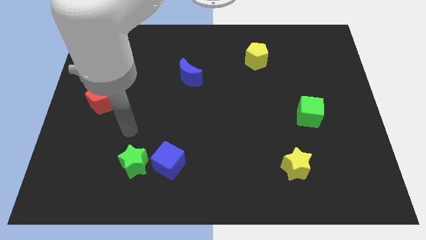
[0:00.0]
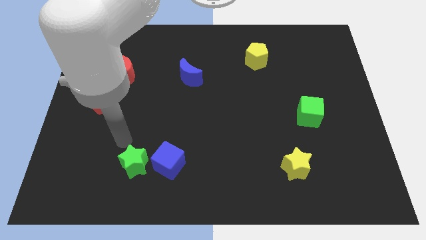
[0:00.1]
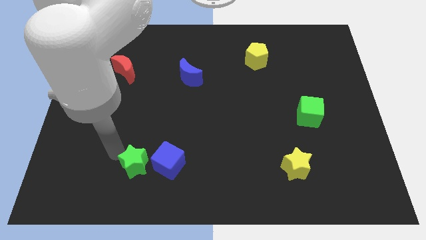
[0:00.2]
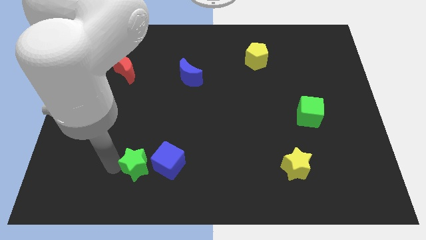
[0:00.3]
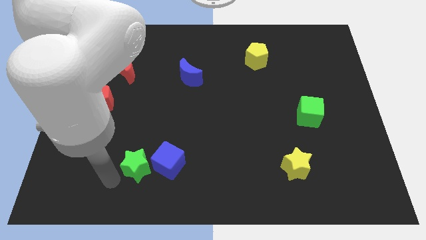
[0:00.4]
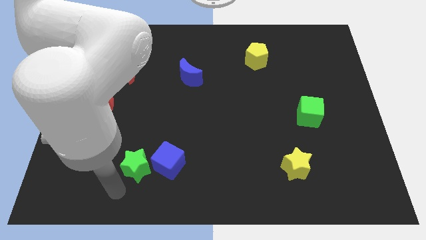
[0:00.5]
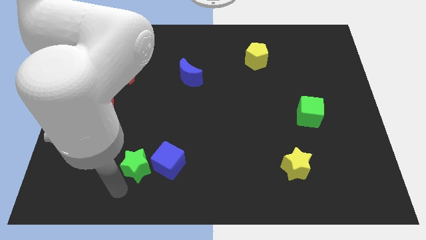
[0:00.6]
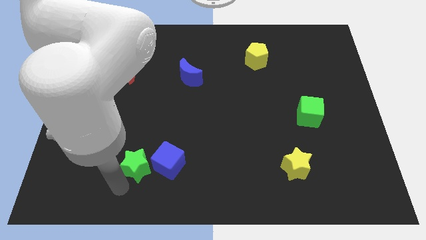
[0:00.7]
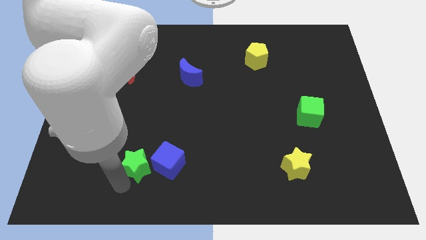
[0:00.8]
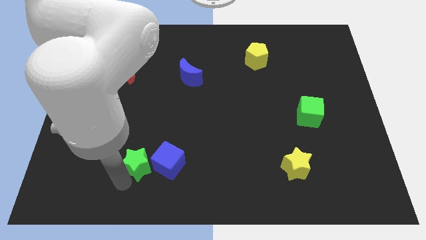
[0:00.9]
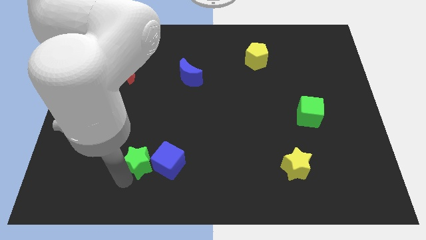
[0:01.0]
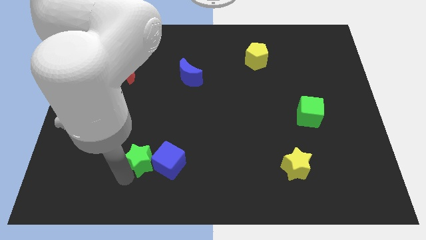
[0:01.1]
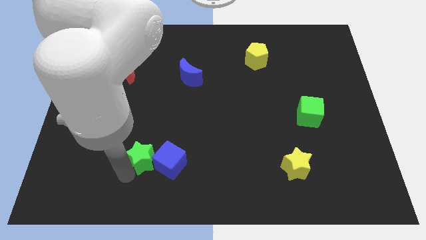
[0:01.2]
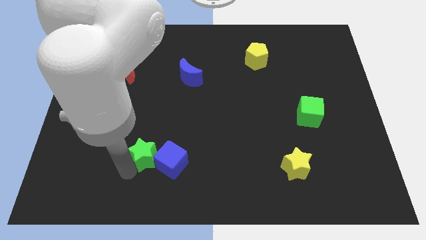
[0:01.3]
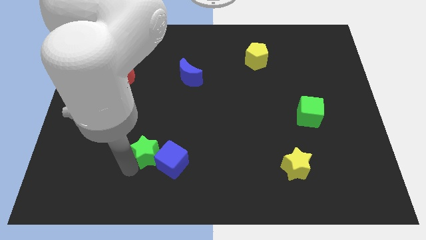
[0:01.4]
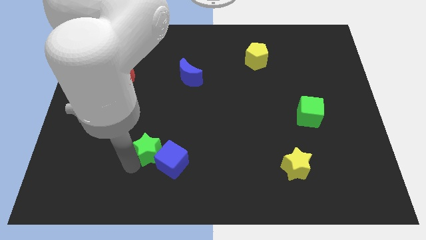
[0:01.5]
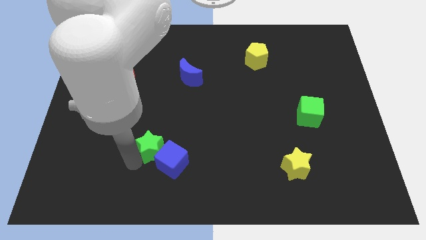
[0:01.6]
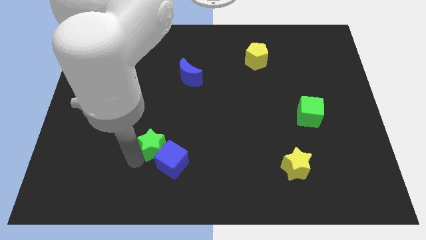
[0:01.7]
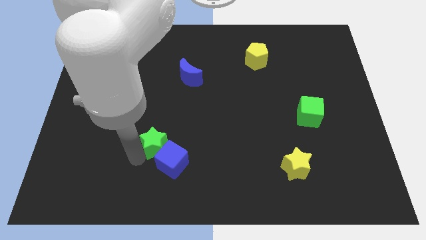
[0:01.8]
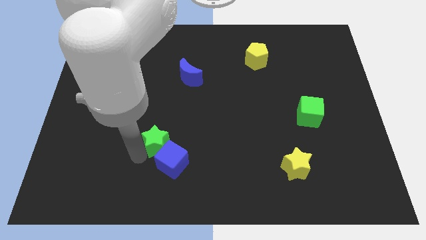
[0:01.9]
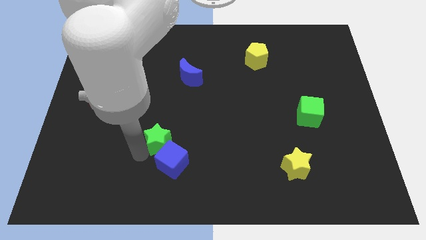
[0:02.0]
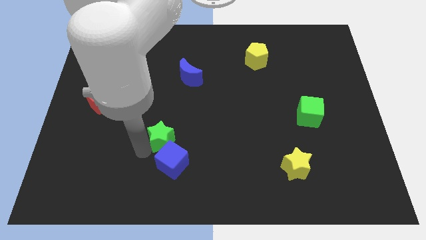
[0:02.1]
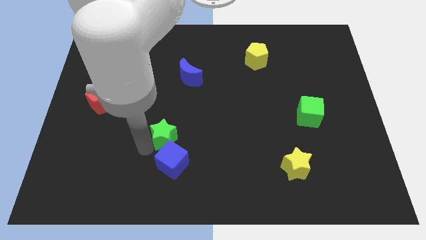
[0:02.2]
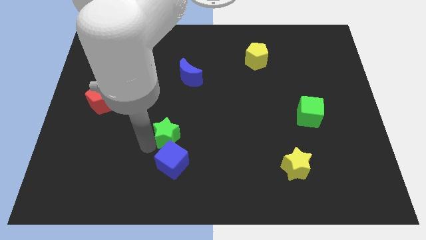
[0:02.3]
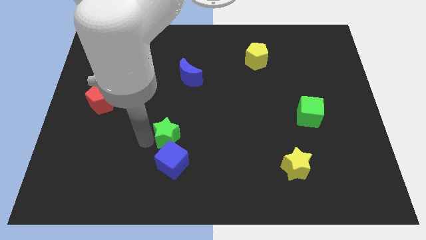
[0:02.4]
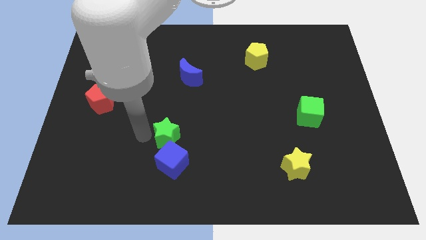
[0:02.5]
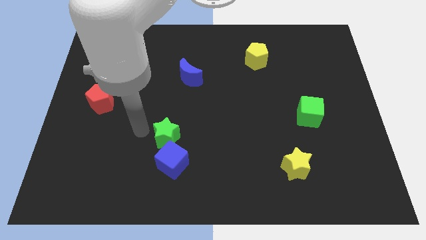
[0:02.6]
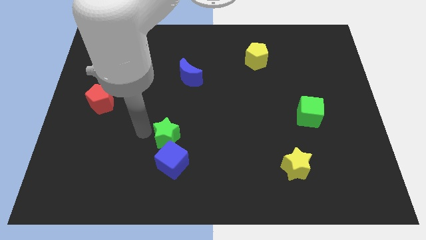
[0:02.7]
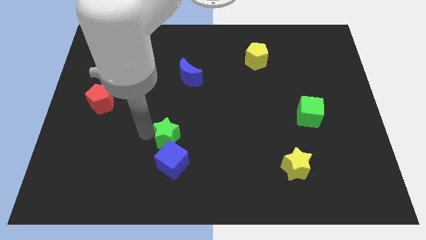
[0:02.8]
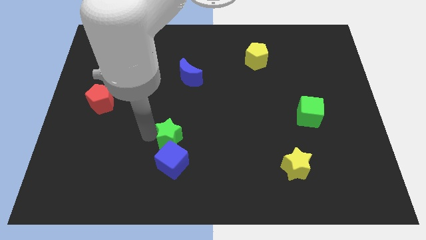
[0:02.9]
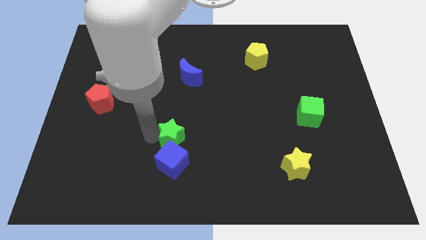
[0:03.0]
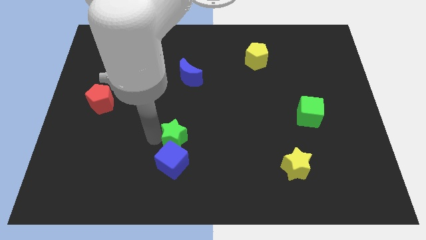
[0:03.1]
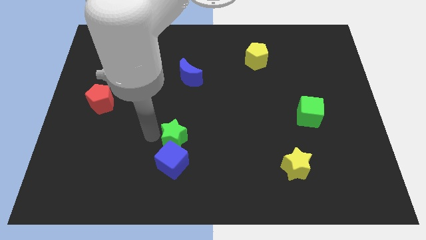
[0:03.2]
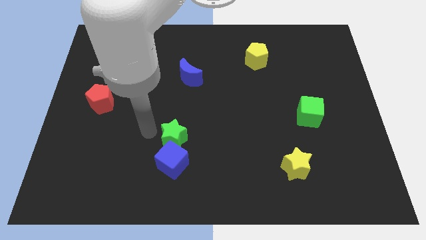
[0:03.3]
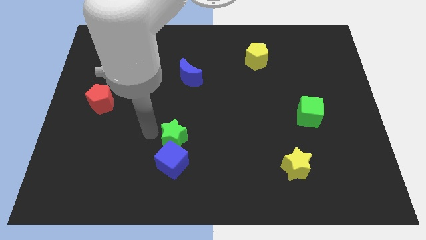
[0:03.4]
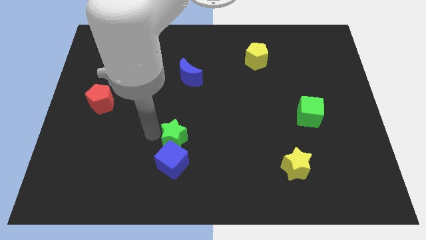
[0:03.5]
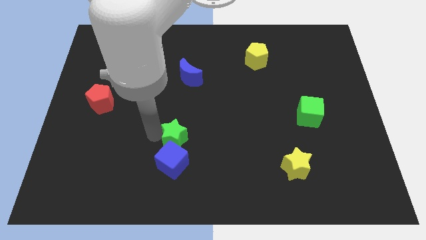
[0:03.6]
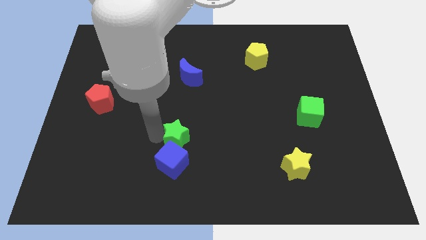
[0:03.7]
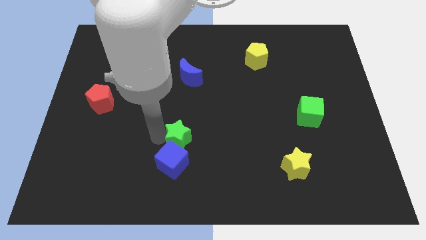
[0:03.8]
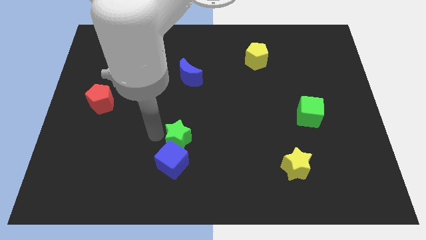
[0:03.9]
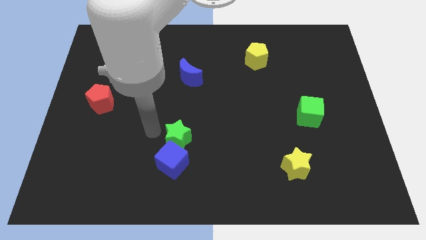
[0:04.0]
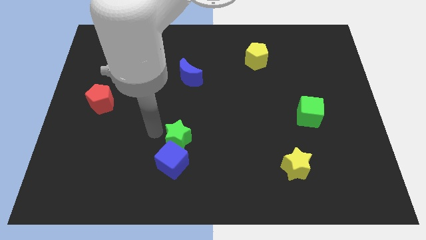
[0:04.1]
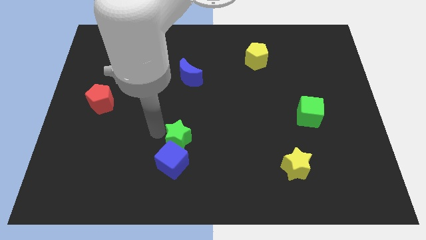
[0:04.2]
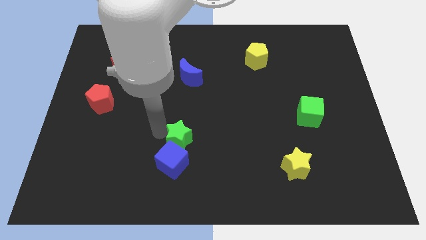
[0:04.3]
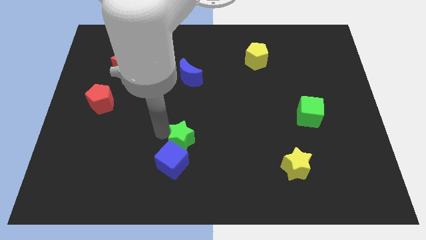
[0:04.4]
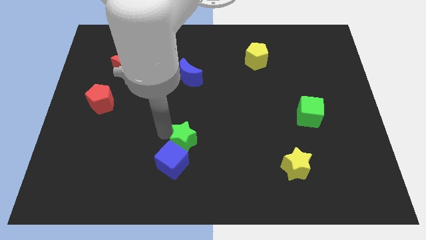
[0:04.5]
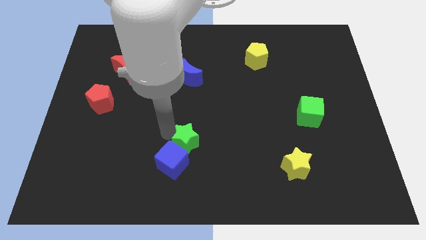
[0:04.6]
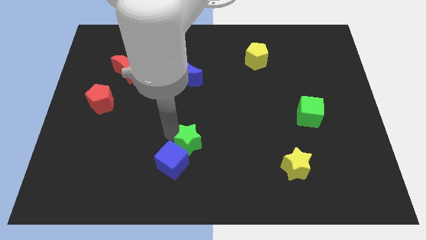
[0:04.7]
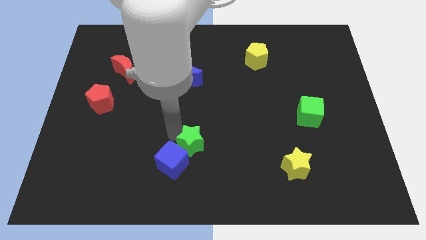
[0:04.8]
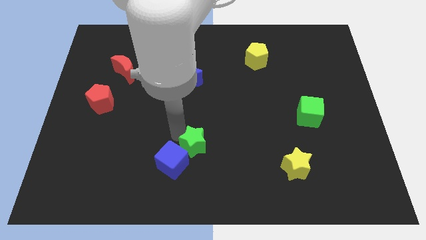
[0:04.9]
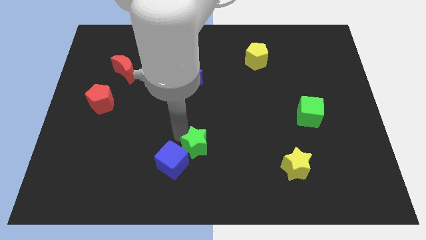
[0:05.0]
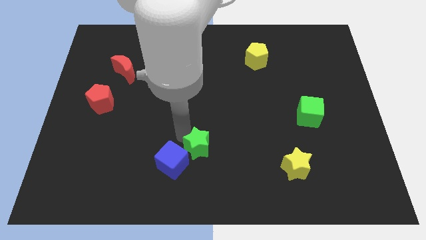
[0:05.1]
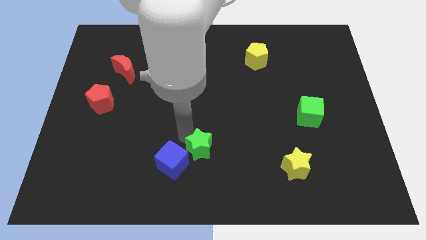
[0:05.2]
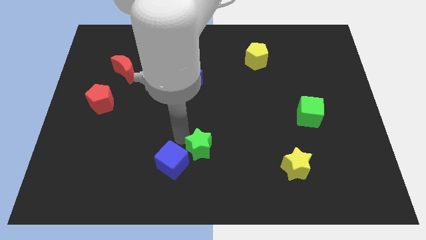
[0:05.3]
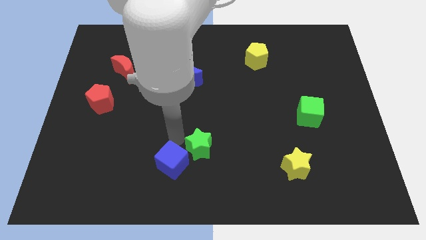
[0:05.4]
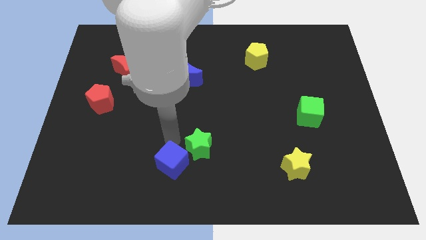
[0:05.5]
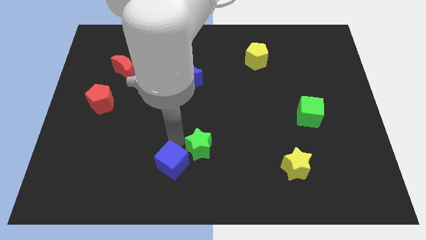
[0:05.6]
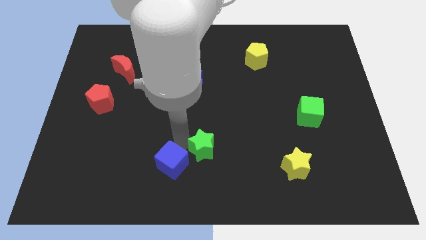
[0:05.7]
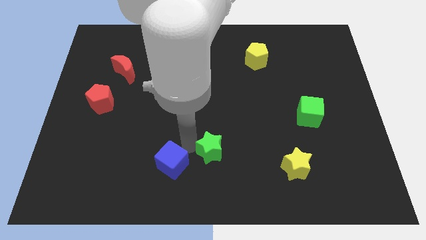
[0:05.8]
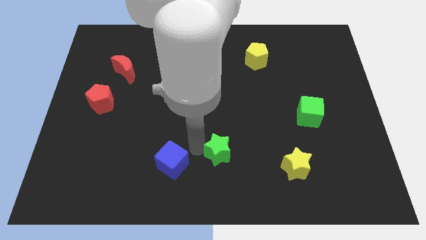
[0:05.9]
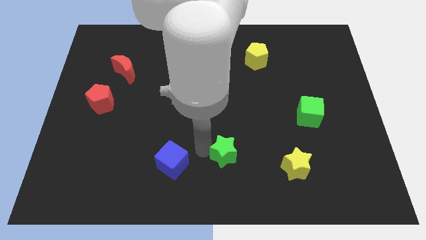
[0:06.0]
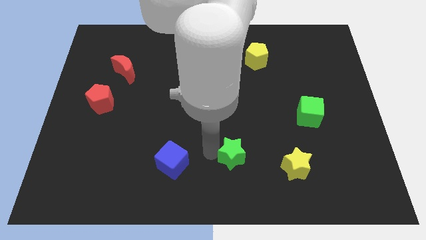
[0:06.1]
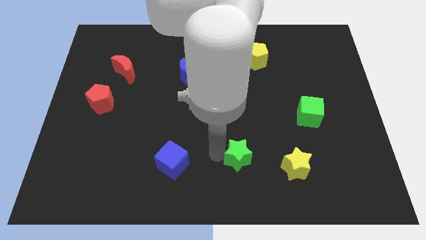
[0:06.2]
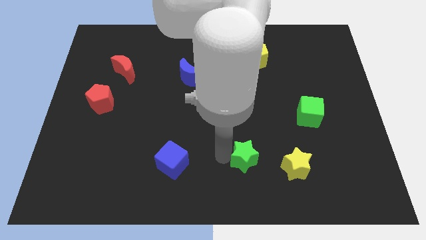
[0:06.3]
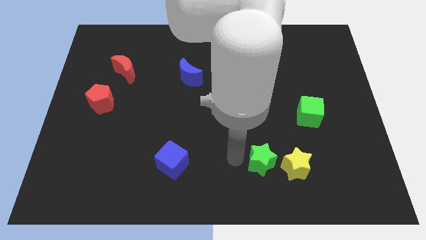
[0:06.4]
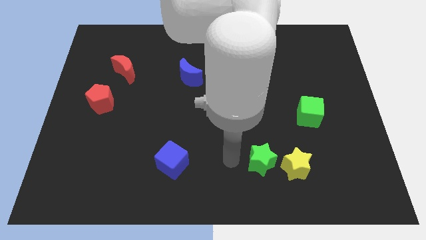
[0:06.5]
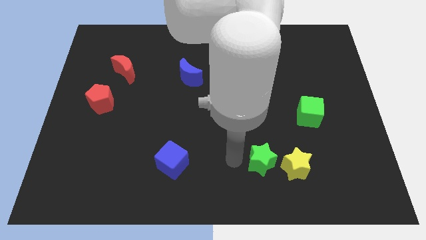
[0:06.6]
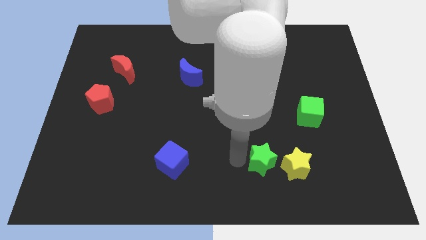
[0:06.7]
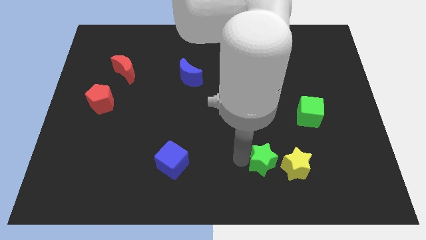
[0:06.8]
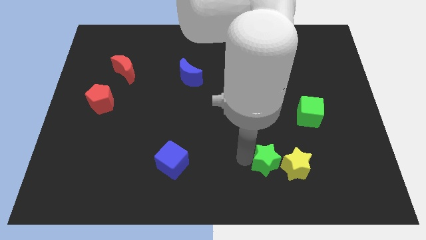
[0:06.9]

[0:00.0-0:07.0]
push the green star next to the yellow star
